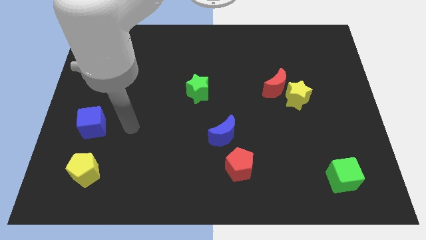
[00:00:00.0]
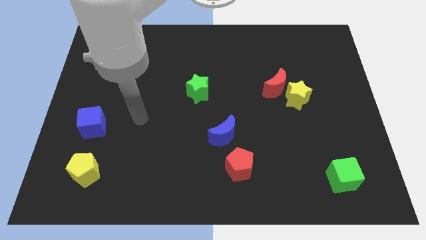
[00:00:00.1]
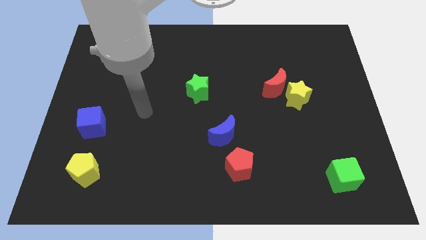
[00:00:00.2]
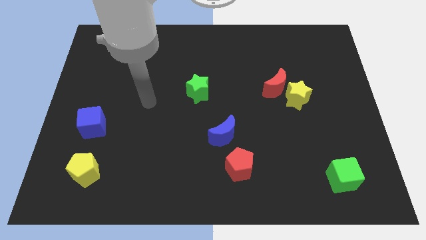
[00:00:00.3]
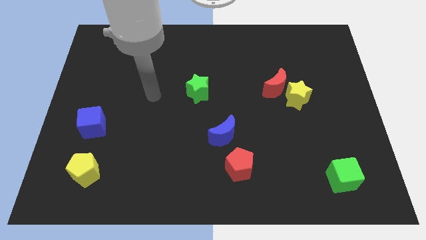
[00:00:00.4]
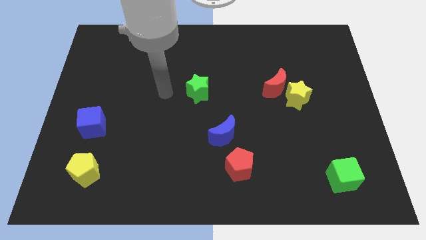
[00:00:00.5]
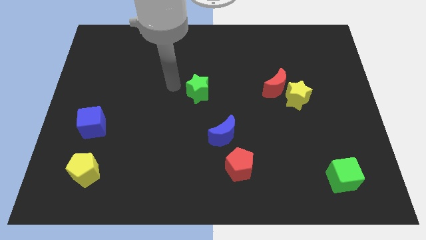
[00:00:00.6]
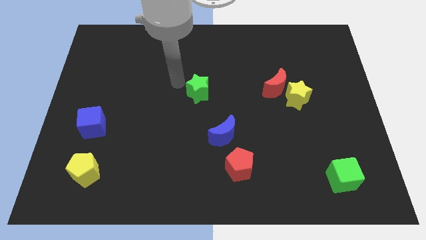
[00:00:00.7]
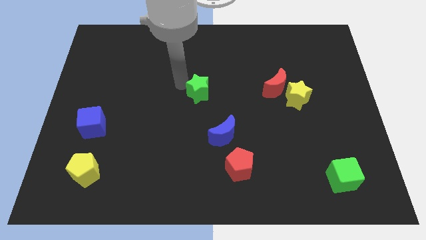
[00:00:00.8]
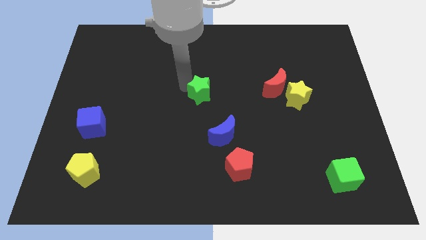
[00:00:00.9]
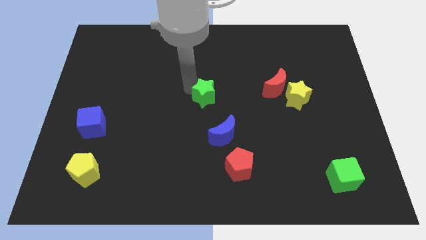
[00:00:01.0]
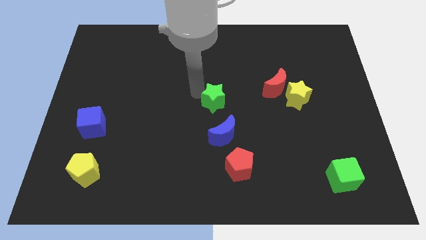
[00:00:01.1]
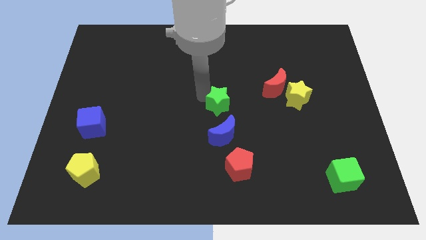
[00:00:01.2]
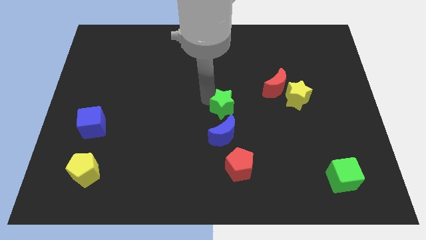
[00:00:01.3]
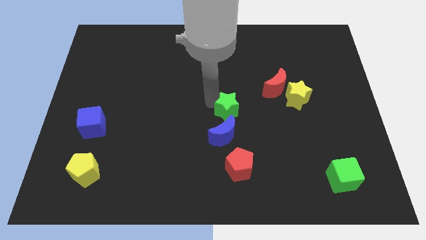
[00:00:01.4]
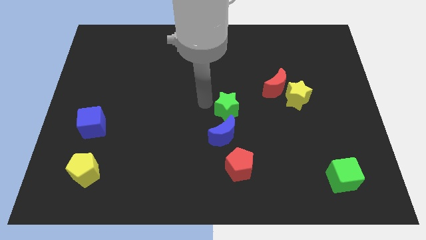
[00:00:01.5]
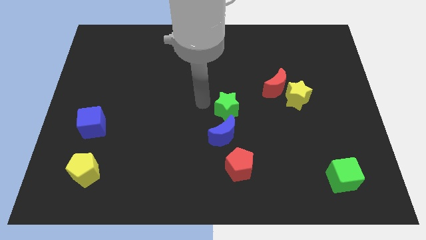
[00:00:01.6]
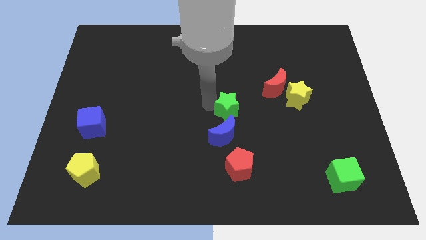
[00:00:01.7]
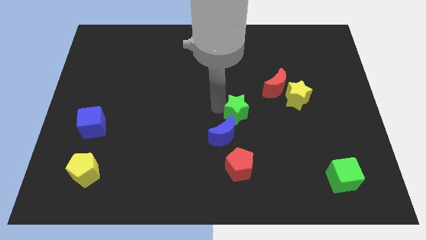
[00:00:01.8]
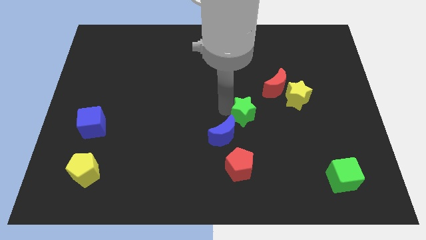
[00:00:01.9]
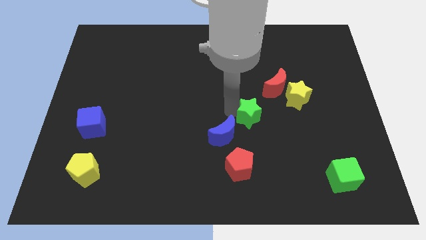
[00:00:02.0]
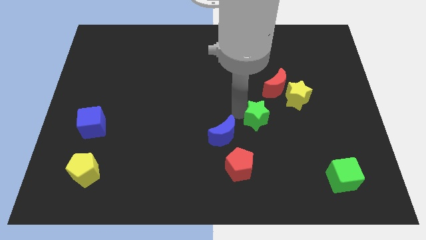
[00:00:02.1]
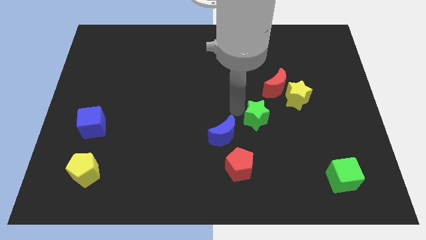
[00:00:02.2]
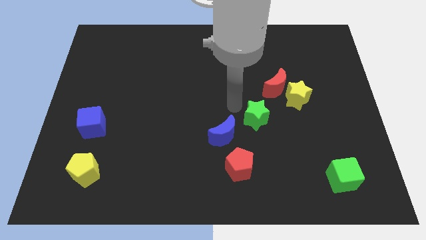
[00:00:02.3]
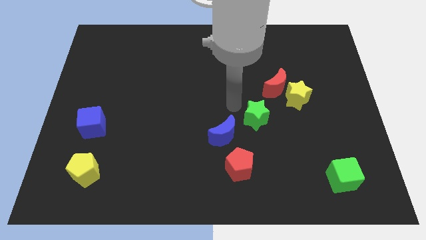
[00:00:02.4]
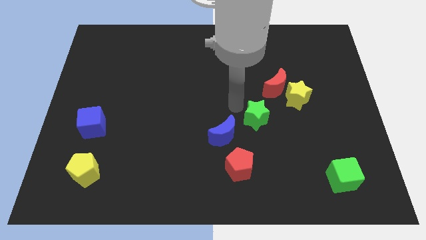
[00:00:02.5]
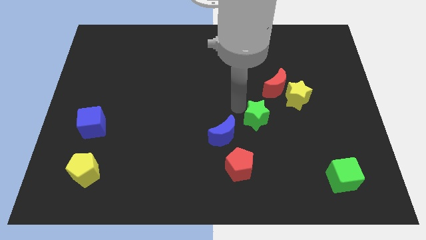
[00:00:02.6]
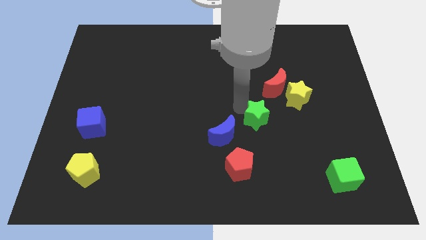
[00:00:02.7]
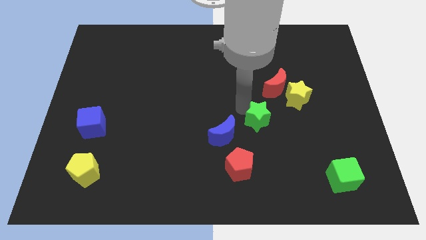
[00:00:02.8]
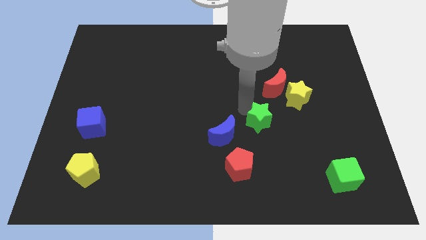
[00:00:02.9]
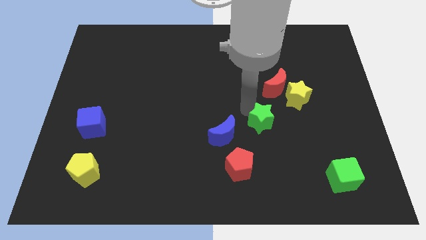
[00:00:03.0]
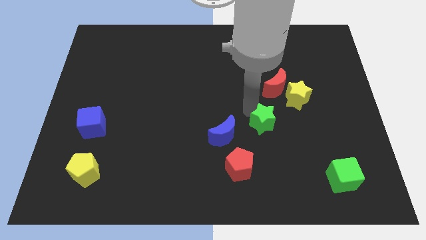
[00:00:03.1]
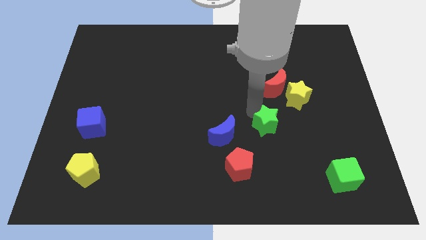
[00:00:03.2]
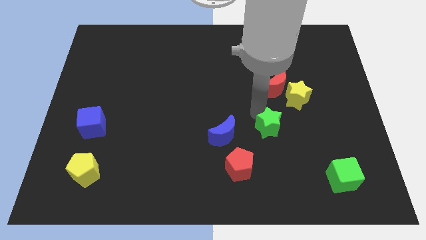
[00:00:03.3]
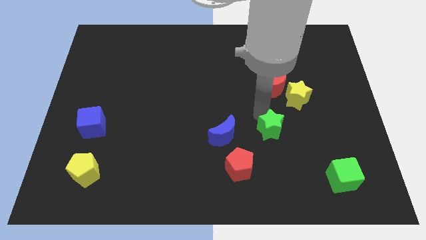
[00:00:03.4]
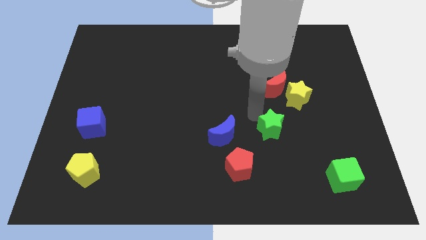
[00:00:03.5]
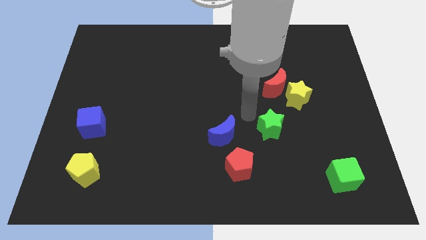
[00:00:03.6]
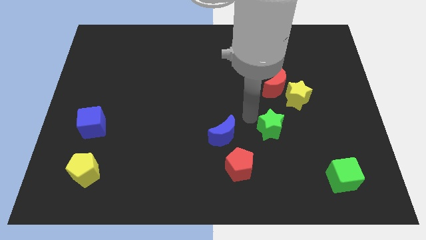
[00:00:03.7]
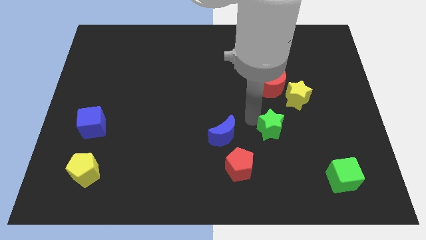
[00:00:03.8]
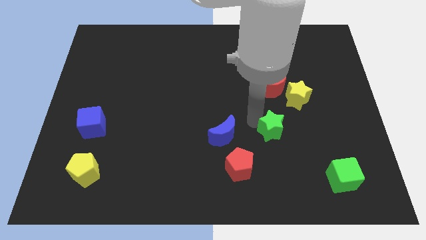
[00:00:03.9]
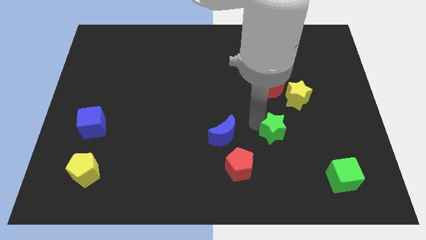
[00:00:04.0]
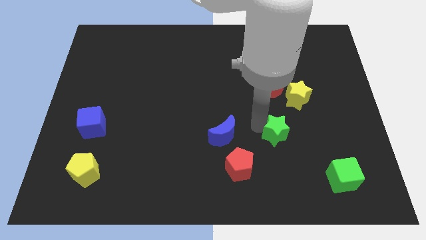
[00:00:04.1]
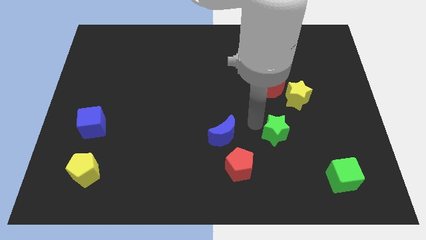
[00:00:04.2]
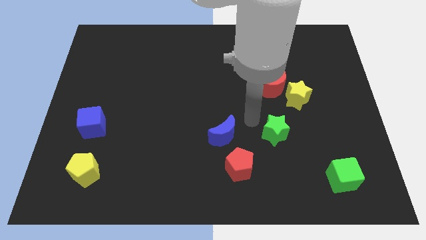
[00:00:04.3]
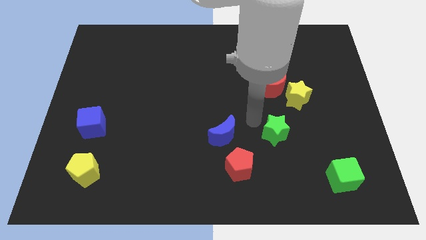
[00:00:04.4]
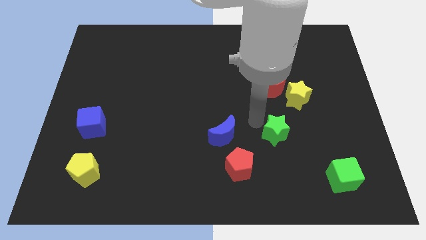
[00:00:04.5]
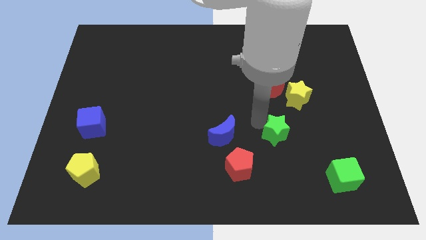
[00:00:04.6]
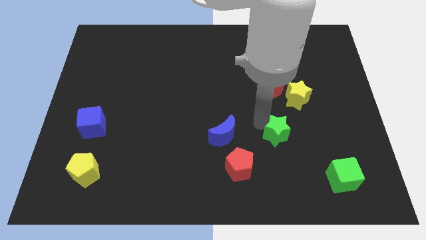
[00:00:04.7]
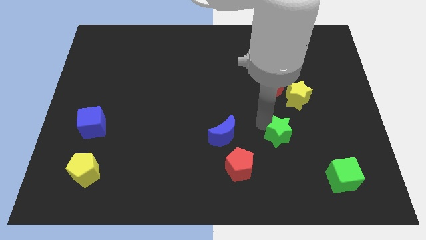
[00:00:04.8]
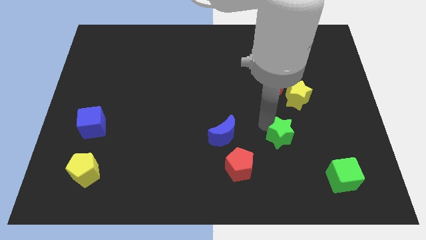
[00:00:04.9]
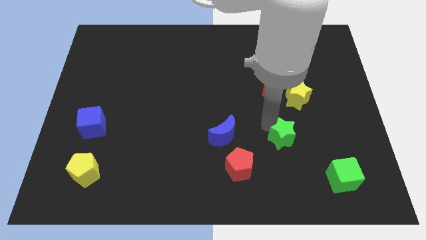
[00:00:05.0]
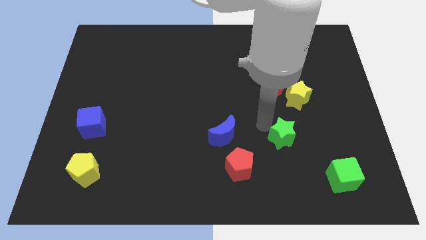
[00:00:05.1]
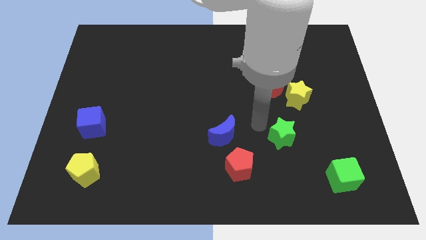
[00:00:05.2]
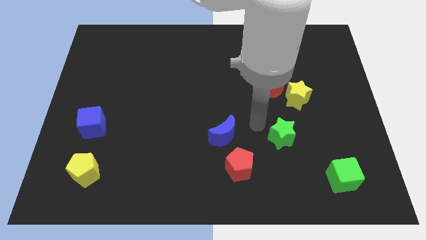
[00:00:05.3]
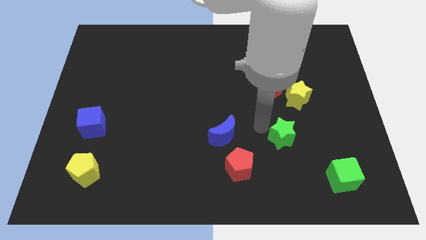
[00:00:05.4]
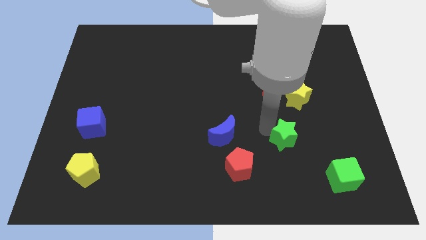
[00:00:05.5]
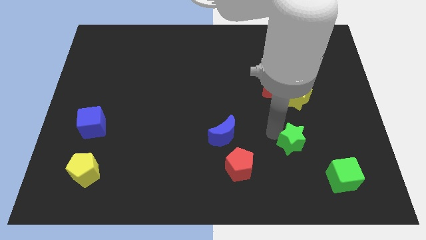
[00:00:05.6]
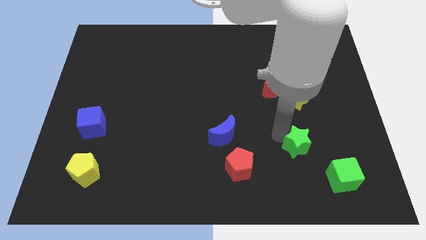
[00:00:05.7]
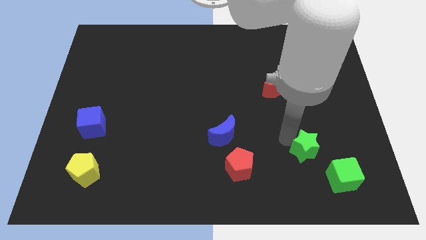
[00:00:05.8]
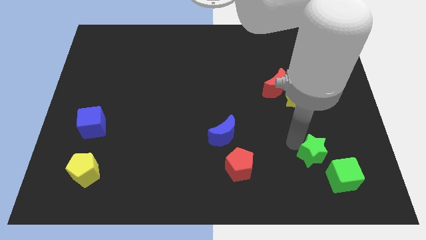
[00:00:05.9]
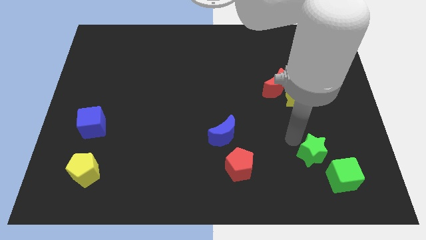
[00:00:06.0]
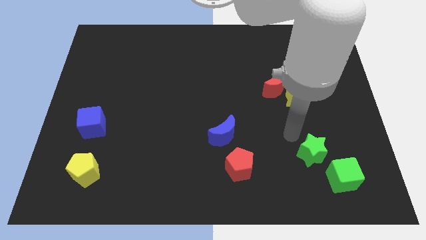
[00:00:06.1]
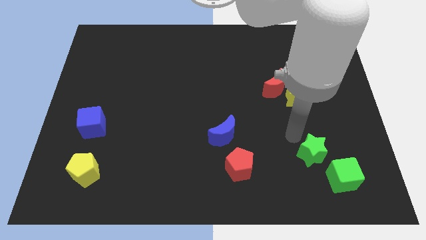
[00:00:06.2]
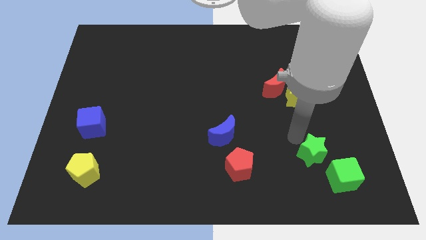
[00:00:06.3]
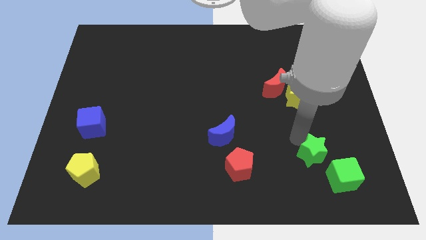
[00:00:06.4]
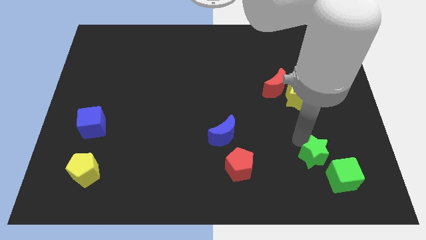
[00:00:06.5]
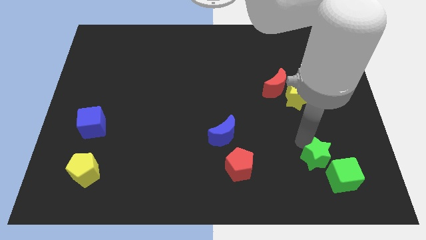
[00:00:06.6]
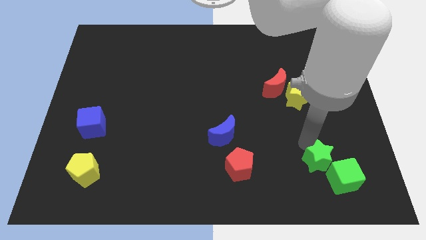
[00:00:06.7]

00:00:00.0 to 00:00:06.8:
move the green star to the green cube
